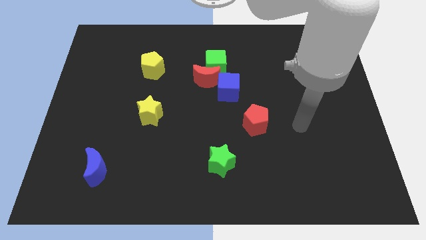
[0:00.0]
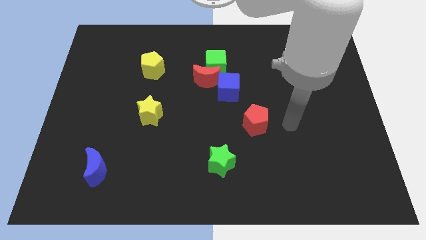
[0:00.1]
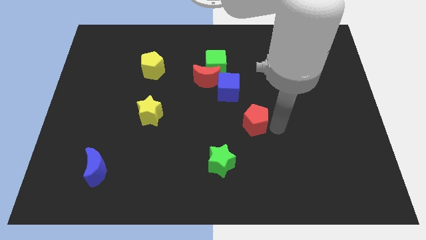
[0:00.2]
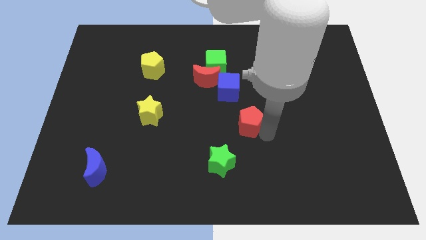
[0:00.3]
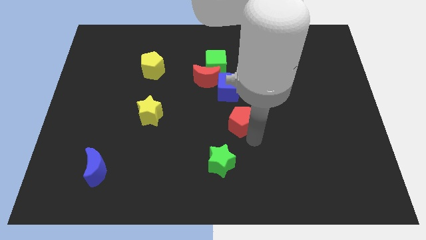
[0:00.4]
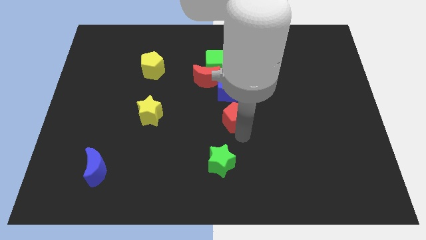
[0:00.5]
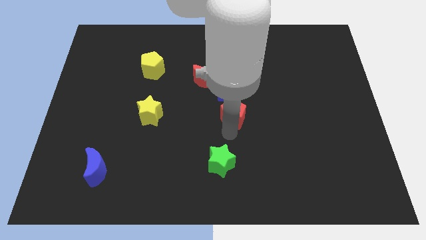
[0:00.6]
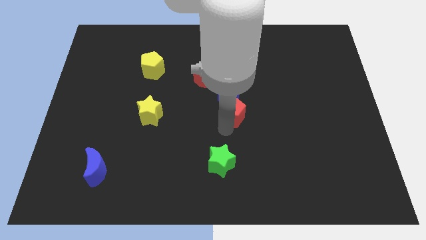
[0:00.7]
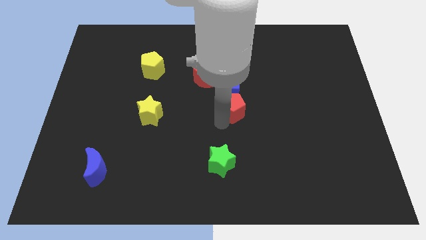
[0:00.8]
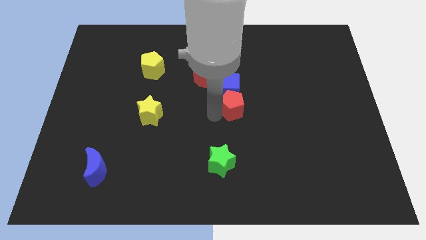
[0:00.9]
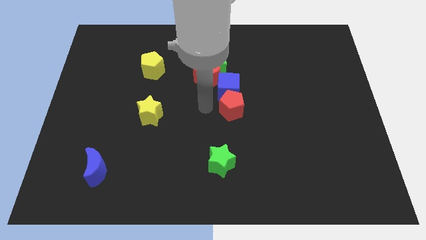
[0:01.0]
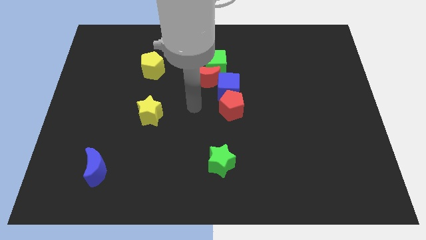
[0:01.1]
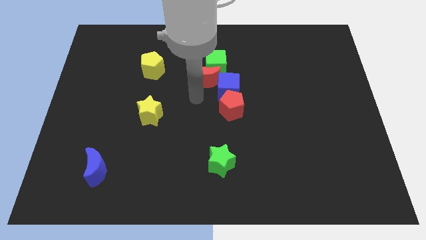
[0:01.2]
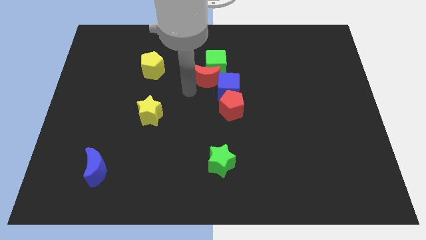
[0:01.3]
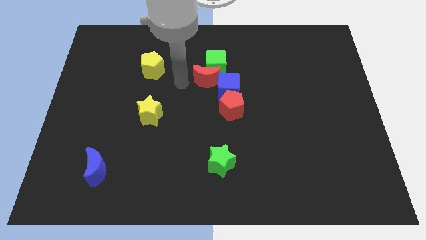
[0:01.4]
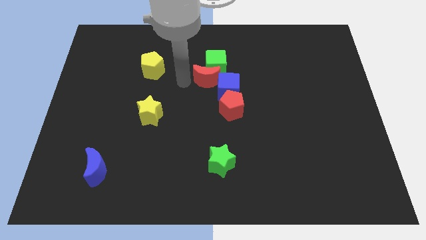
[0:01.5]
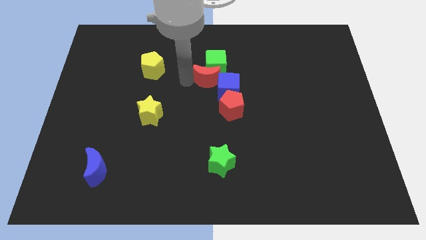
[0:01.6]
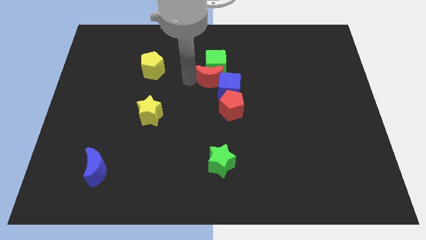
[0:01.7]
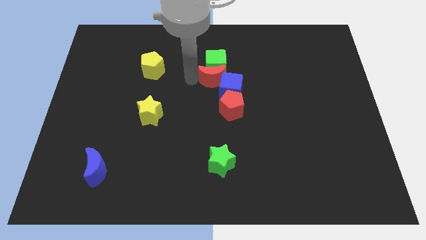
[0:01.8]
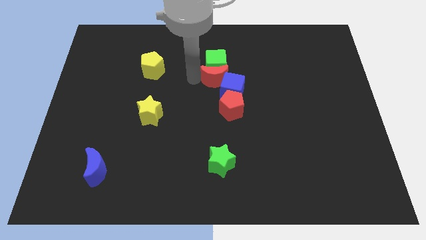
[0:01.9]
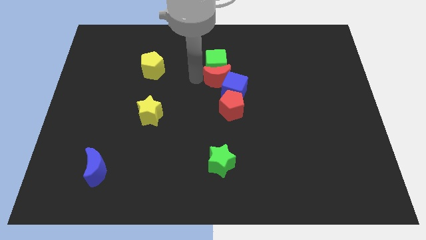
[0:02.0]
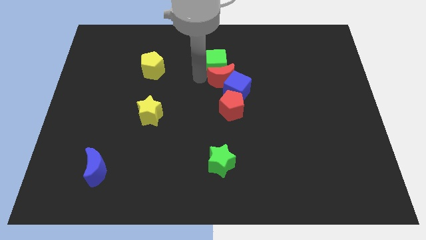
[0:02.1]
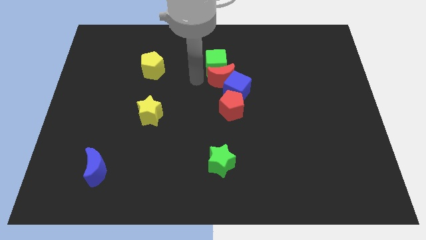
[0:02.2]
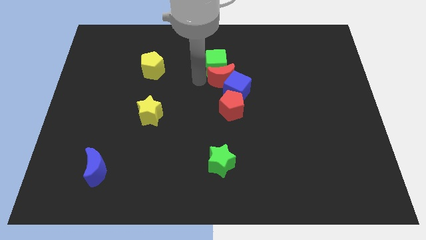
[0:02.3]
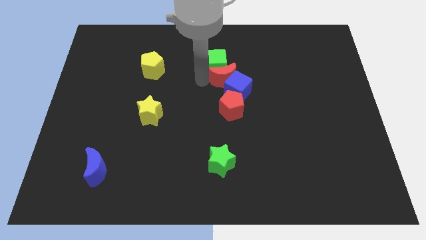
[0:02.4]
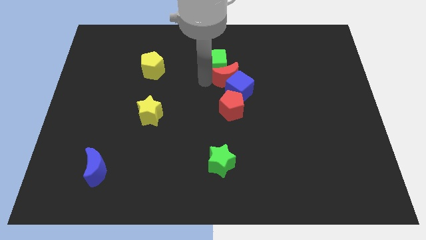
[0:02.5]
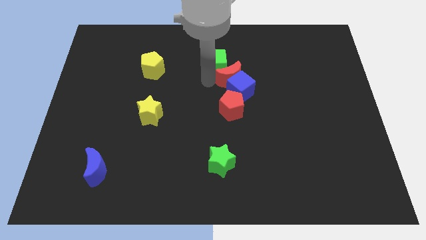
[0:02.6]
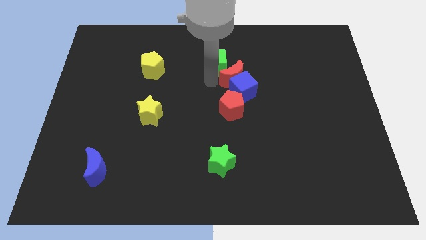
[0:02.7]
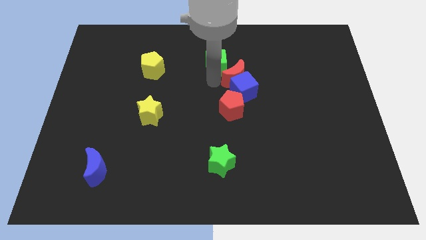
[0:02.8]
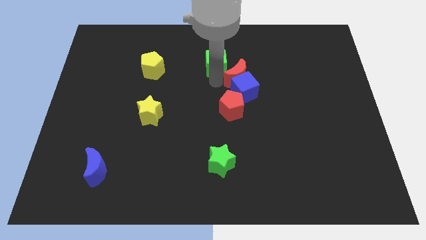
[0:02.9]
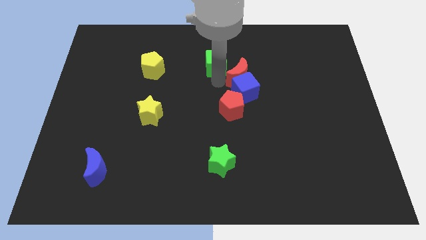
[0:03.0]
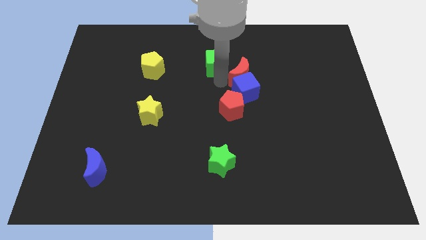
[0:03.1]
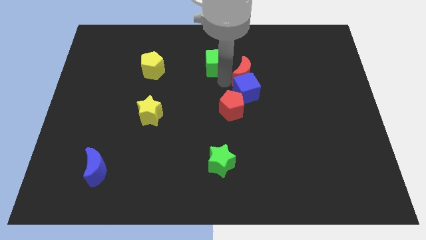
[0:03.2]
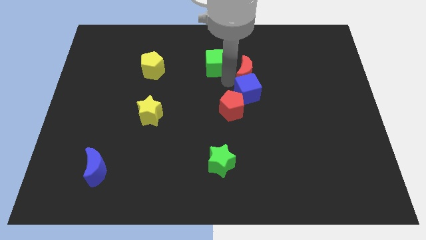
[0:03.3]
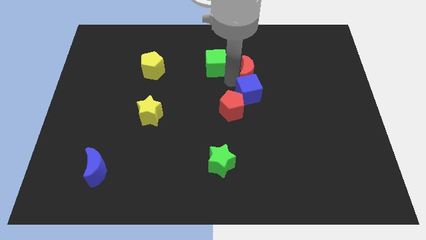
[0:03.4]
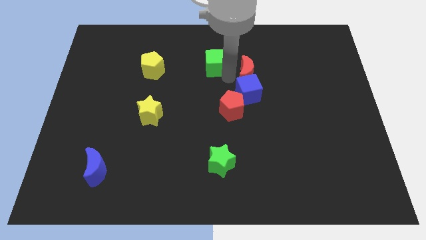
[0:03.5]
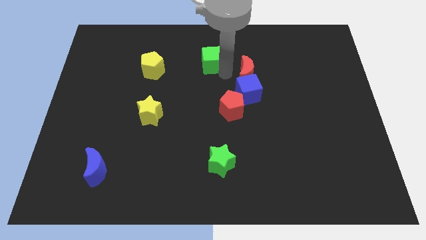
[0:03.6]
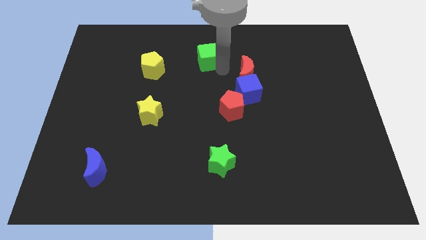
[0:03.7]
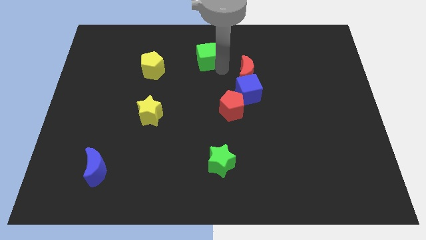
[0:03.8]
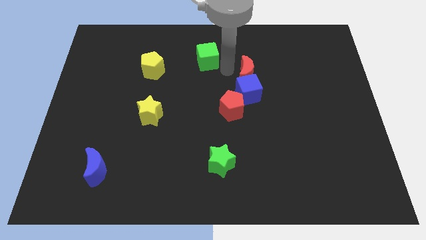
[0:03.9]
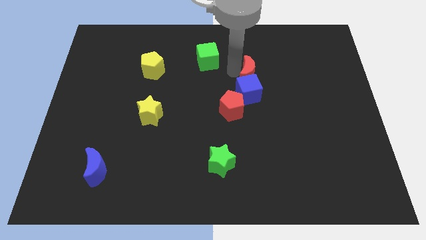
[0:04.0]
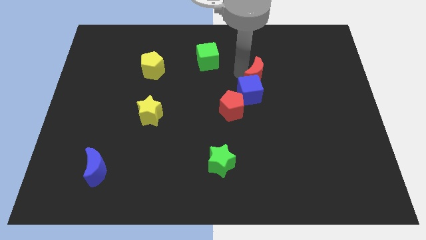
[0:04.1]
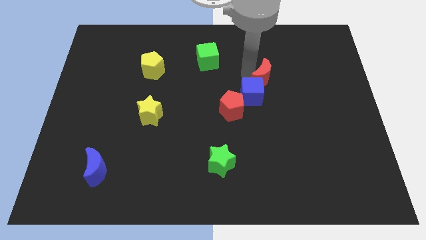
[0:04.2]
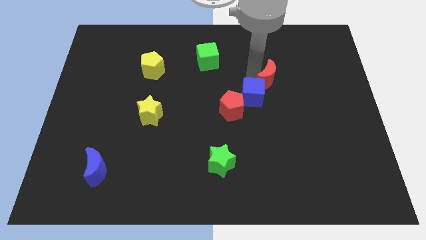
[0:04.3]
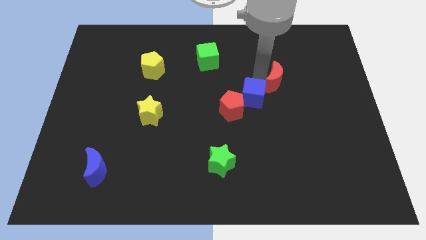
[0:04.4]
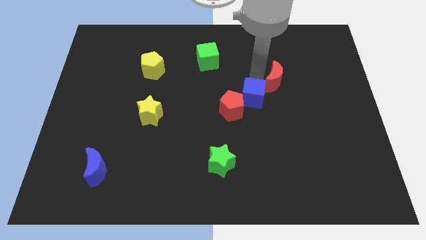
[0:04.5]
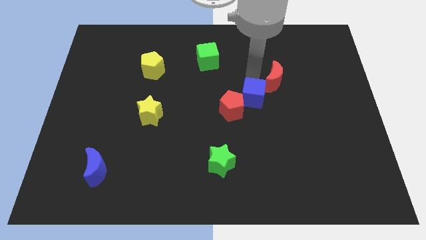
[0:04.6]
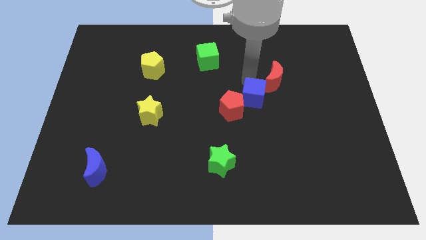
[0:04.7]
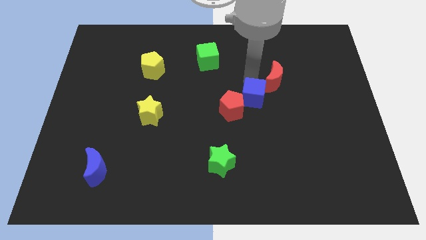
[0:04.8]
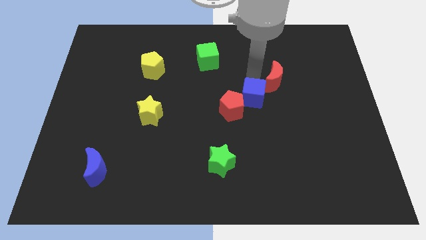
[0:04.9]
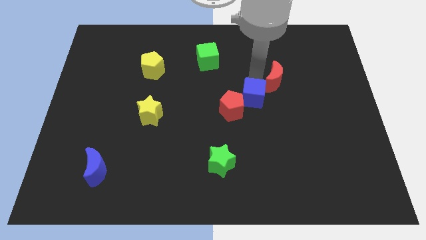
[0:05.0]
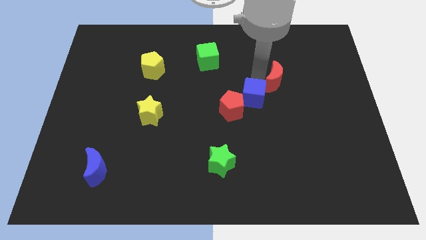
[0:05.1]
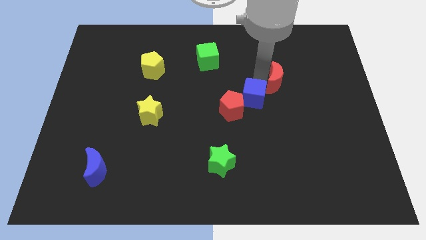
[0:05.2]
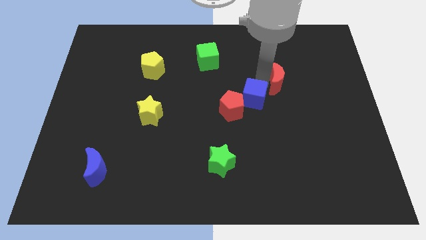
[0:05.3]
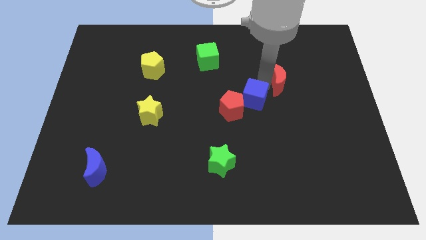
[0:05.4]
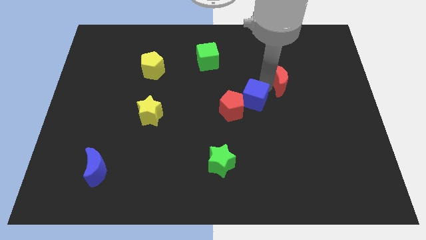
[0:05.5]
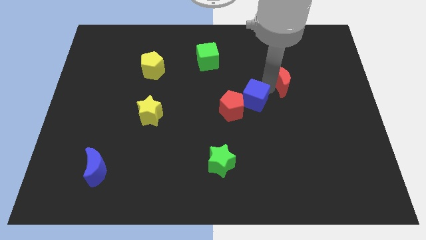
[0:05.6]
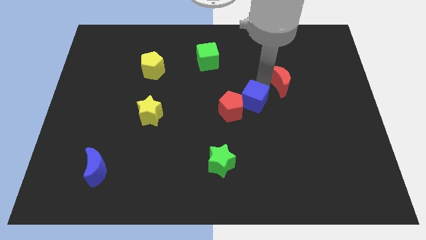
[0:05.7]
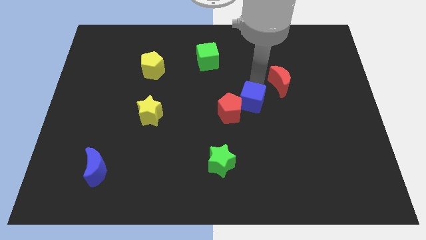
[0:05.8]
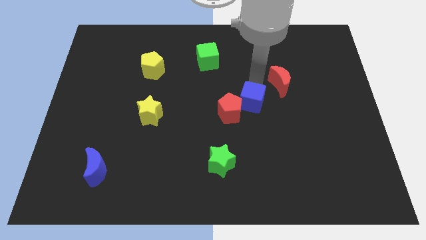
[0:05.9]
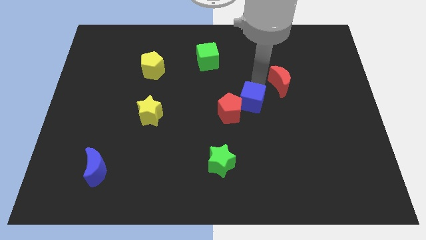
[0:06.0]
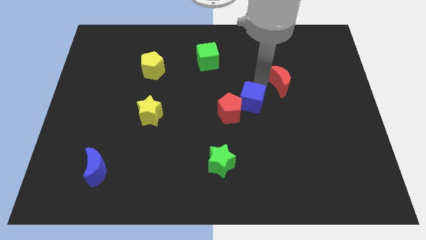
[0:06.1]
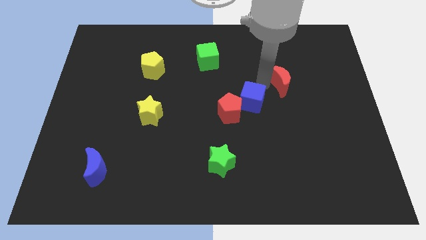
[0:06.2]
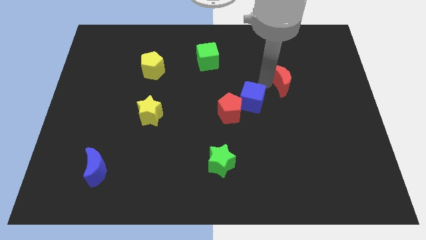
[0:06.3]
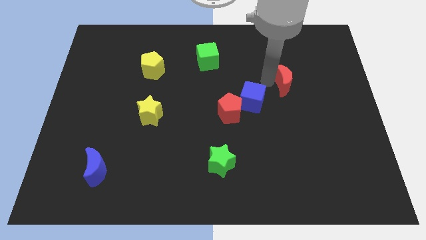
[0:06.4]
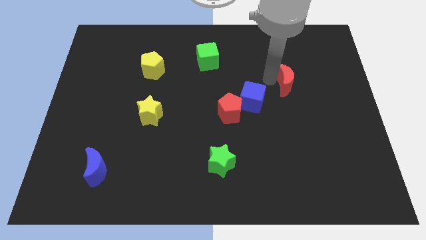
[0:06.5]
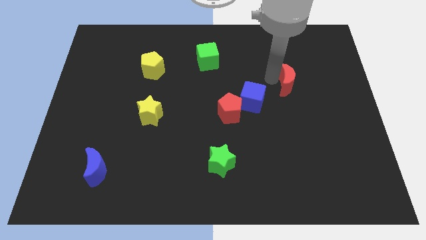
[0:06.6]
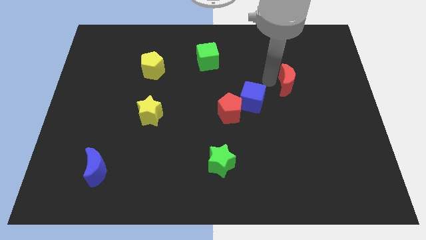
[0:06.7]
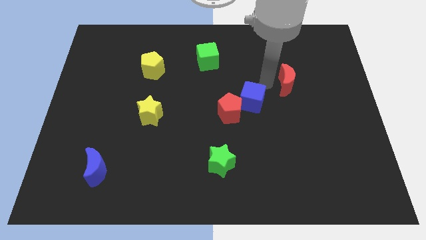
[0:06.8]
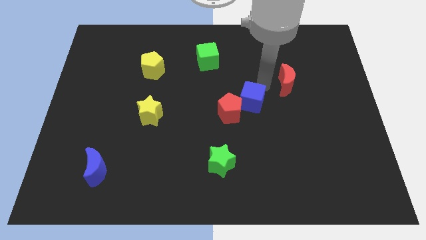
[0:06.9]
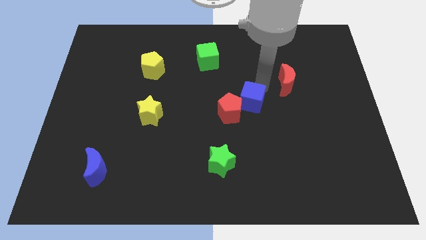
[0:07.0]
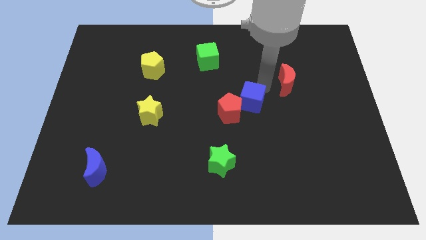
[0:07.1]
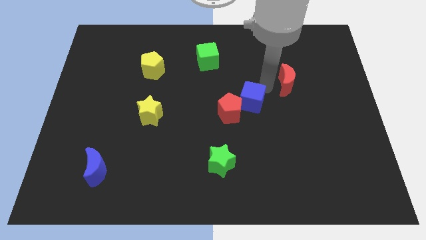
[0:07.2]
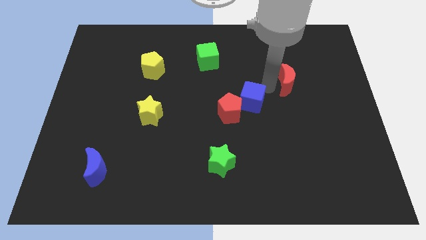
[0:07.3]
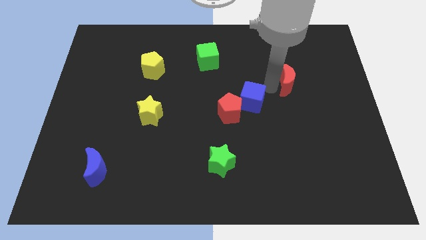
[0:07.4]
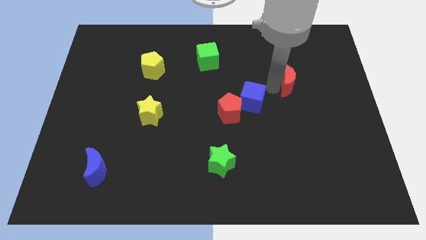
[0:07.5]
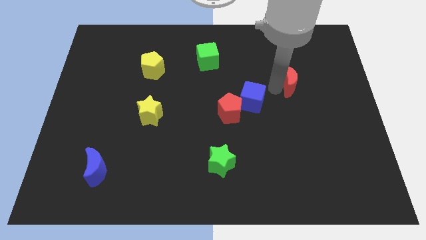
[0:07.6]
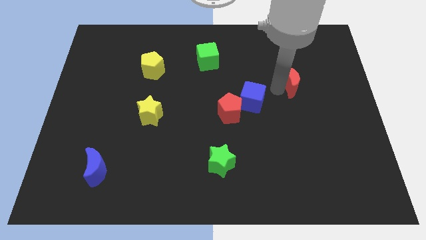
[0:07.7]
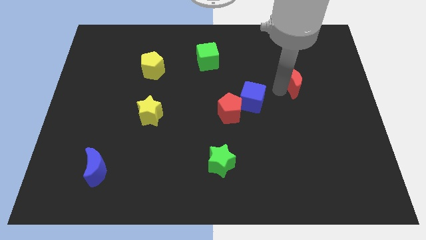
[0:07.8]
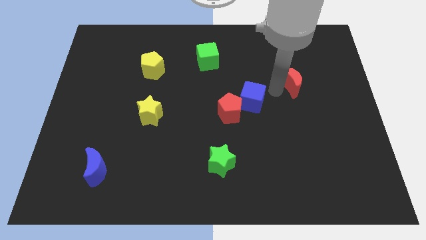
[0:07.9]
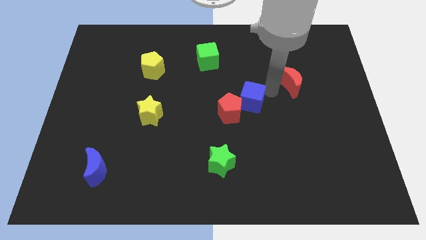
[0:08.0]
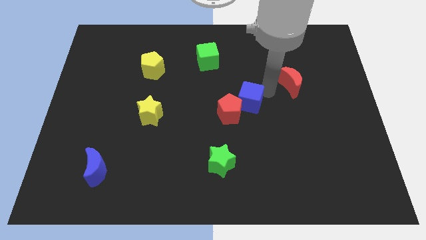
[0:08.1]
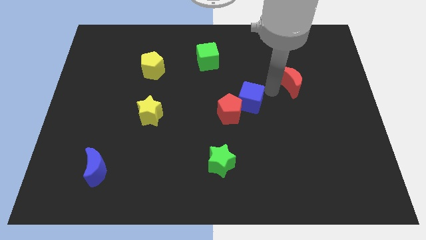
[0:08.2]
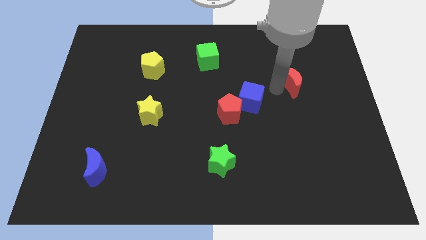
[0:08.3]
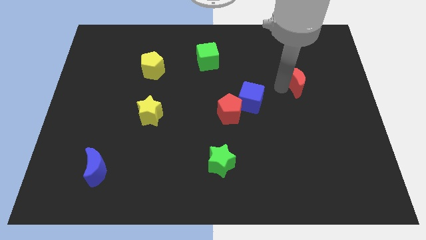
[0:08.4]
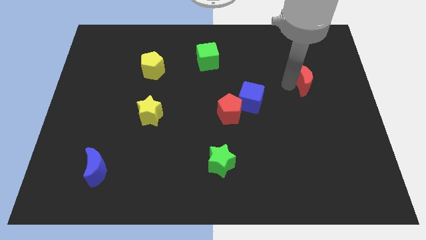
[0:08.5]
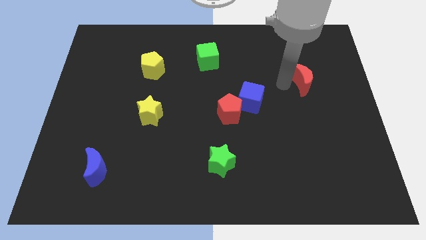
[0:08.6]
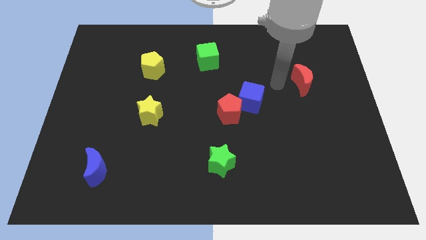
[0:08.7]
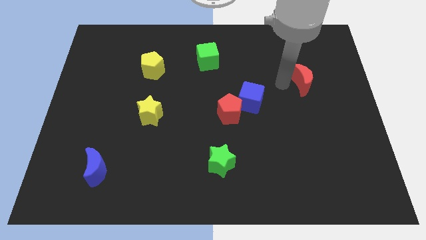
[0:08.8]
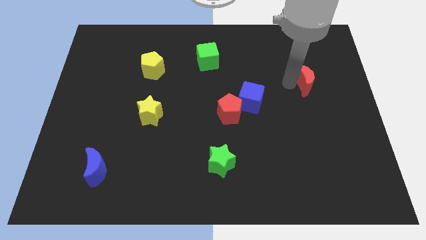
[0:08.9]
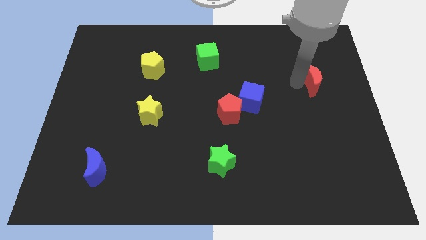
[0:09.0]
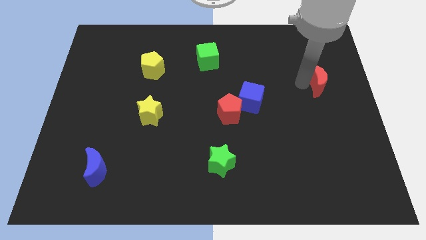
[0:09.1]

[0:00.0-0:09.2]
slide the red moon to the right side of the board
